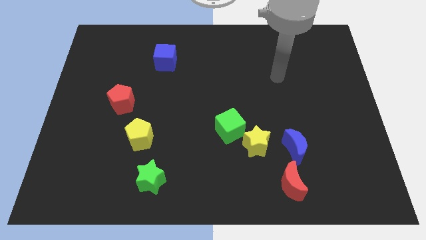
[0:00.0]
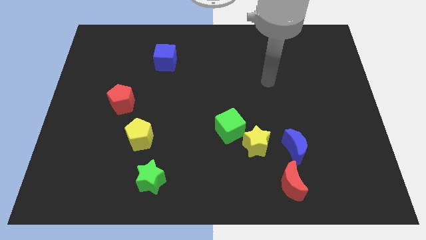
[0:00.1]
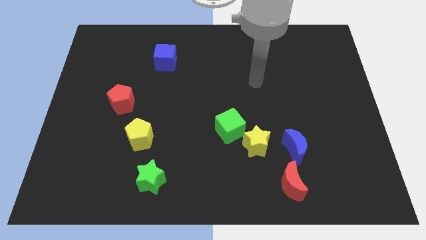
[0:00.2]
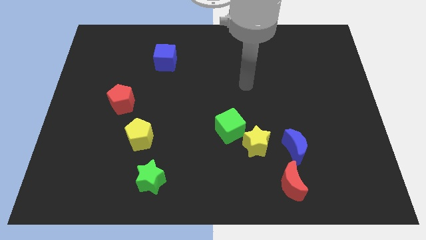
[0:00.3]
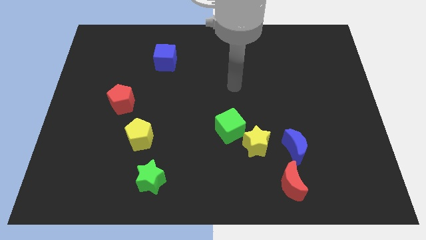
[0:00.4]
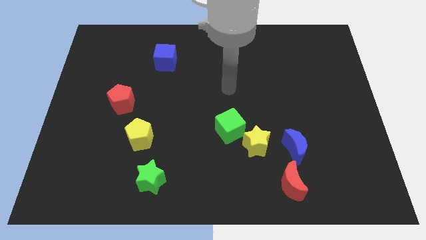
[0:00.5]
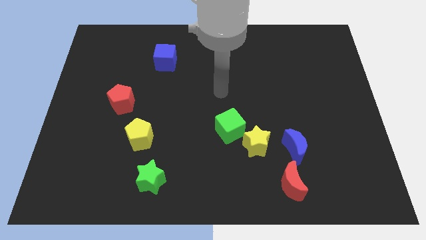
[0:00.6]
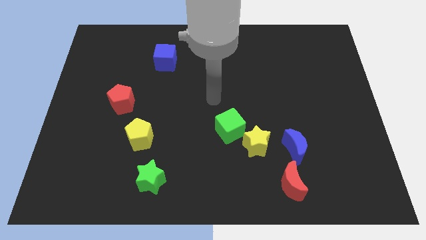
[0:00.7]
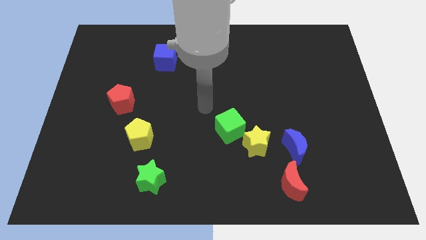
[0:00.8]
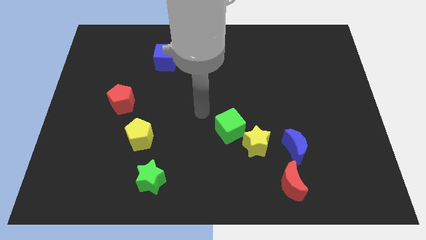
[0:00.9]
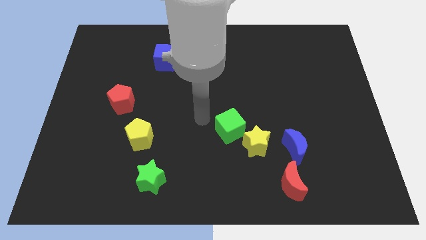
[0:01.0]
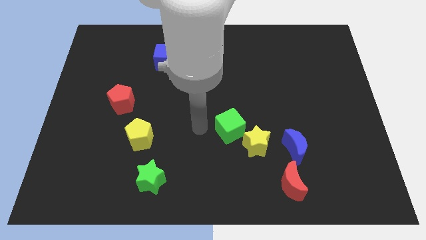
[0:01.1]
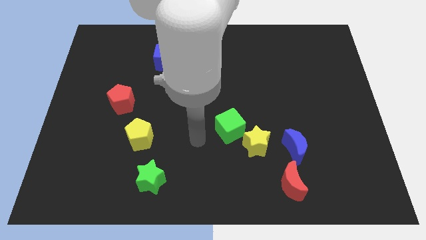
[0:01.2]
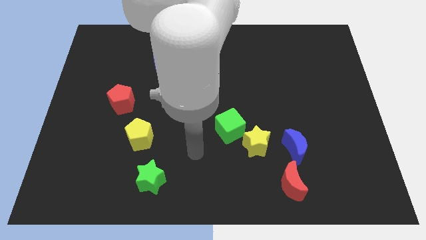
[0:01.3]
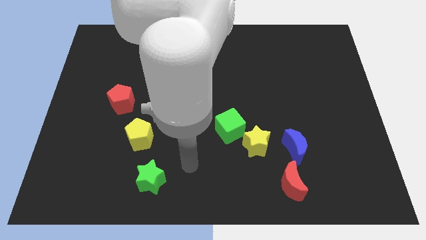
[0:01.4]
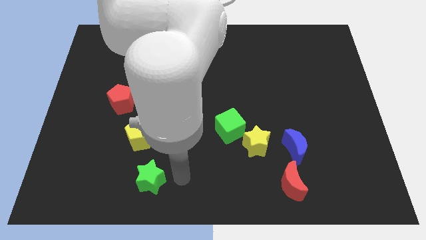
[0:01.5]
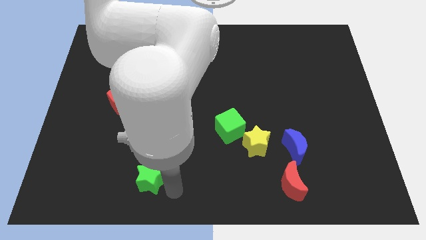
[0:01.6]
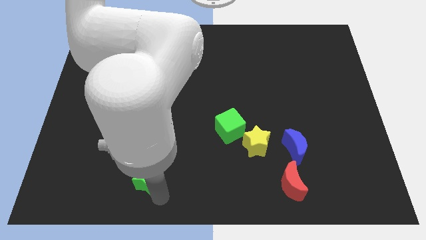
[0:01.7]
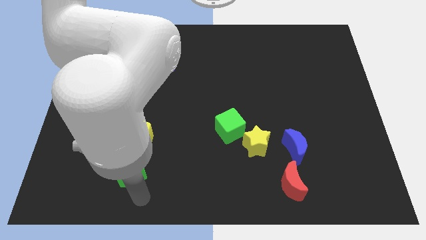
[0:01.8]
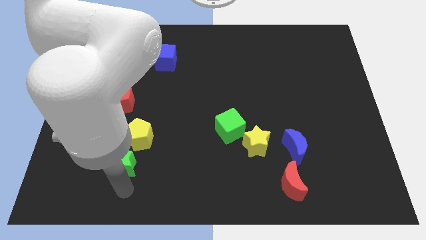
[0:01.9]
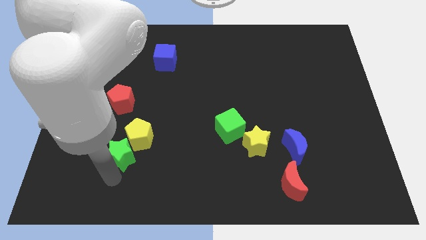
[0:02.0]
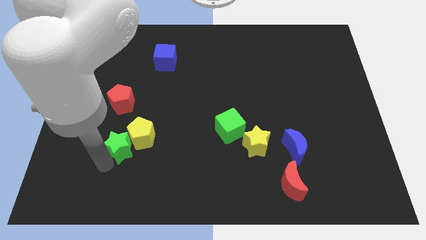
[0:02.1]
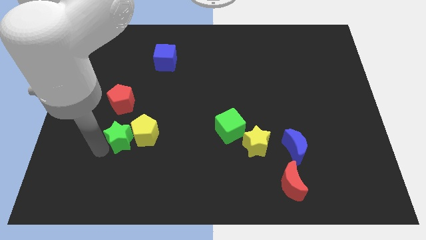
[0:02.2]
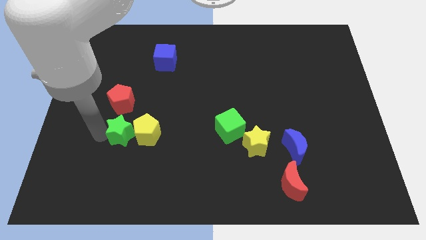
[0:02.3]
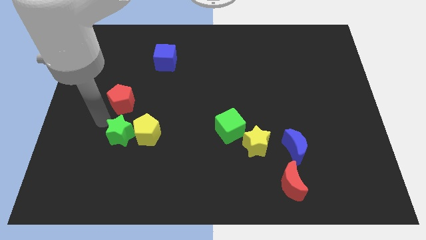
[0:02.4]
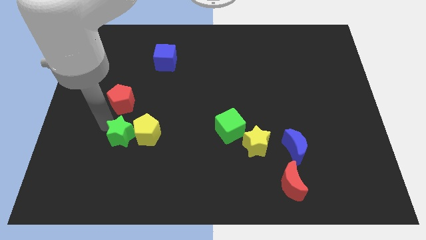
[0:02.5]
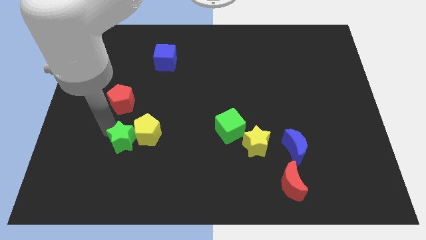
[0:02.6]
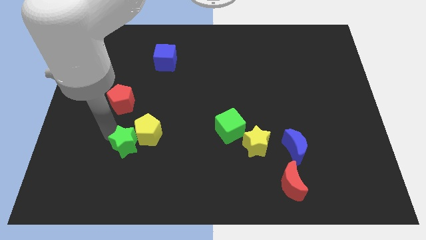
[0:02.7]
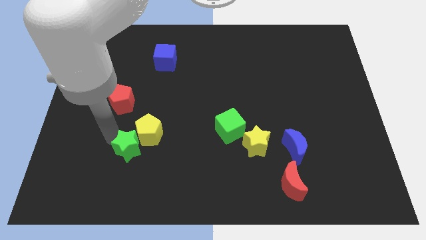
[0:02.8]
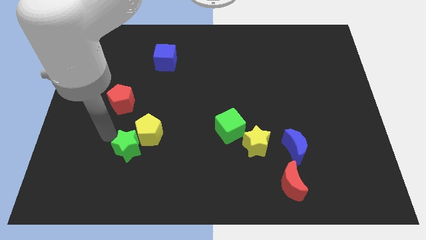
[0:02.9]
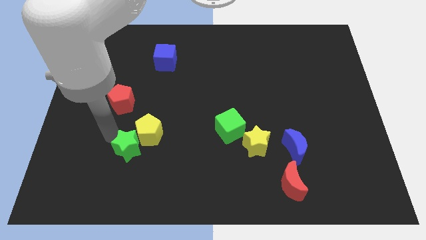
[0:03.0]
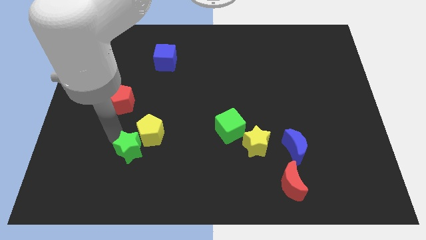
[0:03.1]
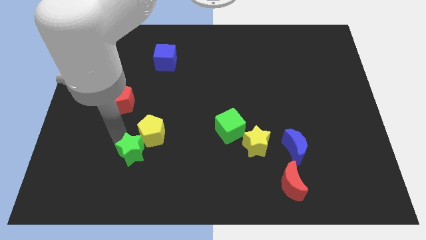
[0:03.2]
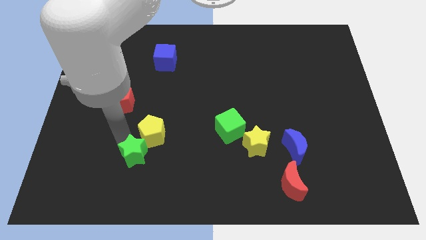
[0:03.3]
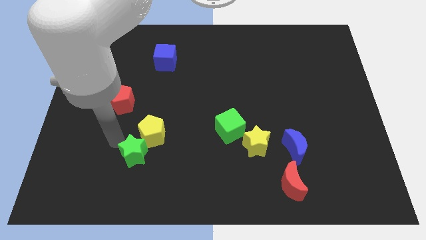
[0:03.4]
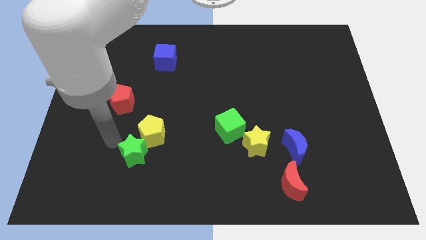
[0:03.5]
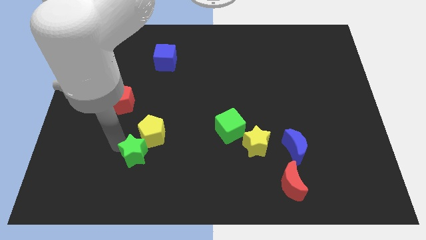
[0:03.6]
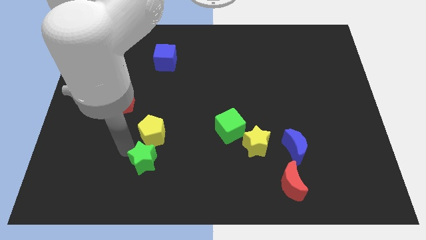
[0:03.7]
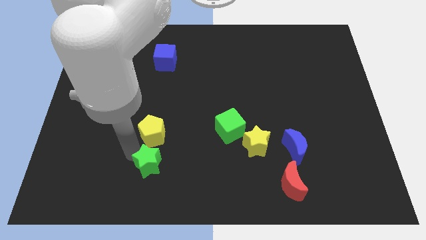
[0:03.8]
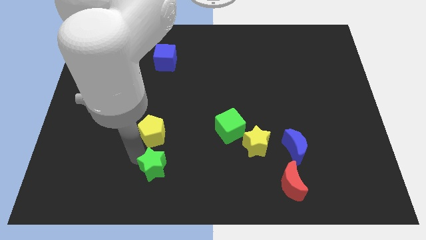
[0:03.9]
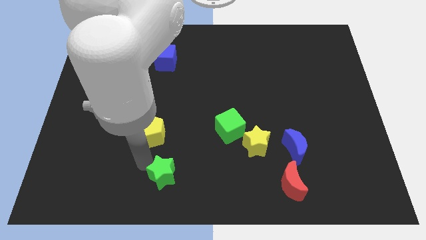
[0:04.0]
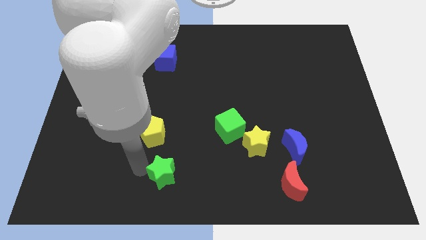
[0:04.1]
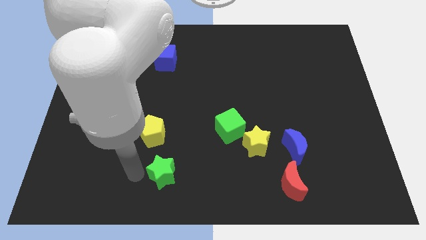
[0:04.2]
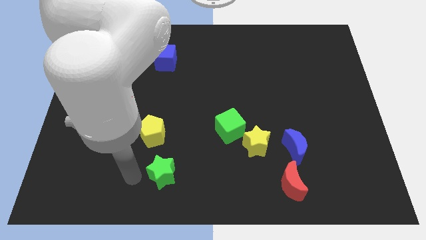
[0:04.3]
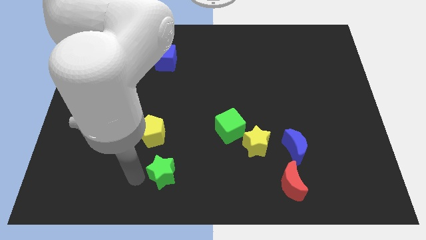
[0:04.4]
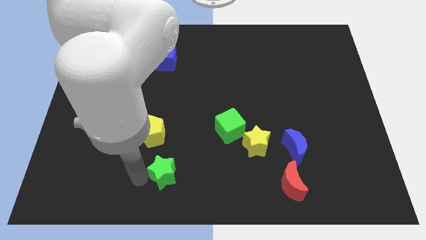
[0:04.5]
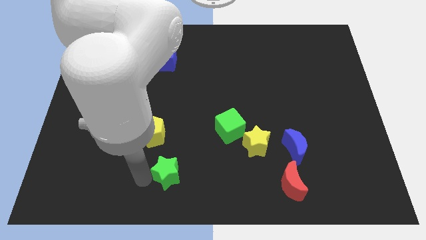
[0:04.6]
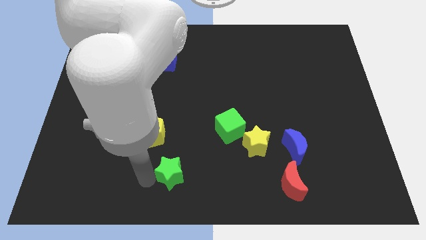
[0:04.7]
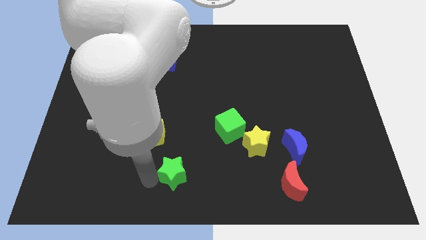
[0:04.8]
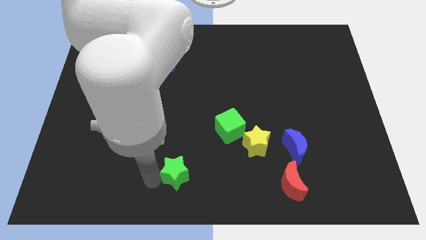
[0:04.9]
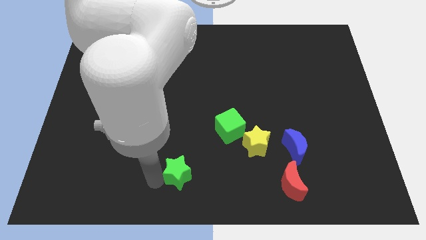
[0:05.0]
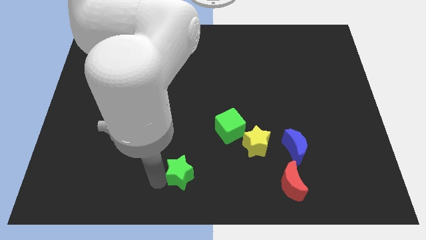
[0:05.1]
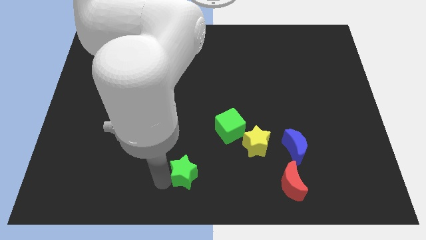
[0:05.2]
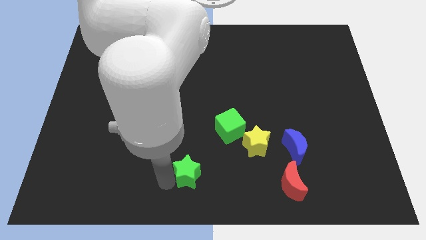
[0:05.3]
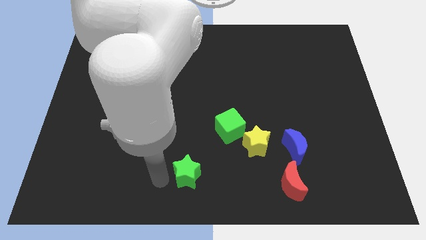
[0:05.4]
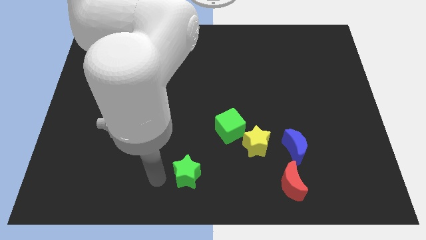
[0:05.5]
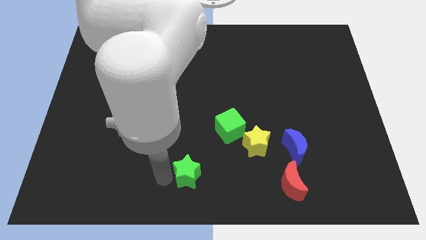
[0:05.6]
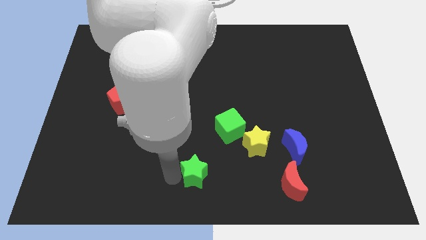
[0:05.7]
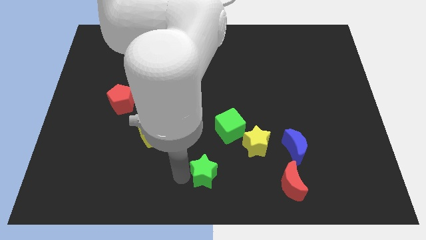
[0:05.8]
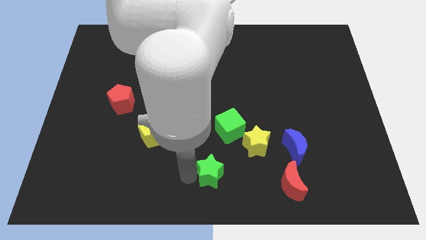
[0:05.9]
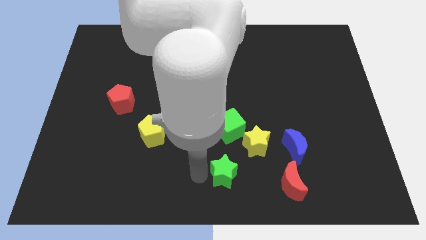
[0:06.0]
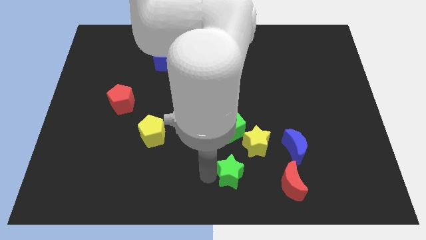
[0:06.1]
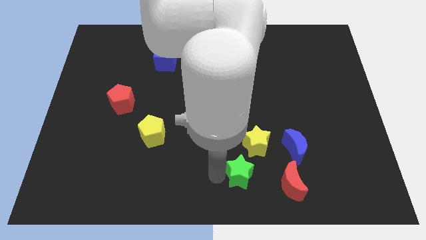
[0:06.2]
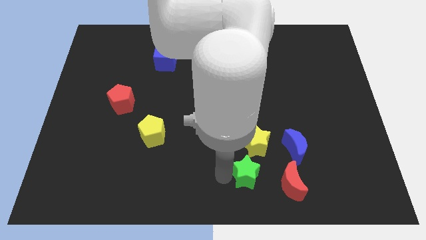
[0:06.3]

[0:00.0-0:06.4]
push the green star right

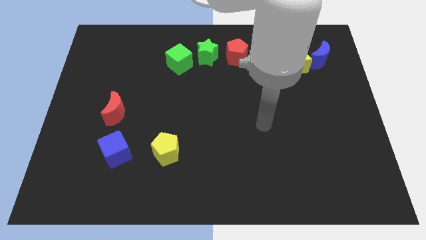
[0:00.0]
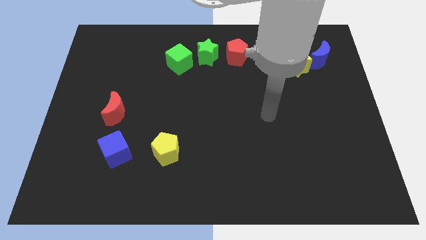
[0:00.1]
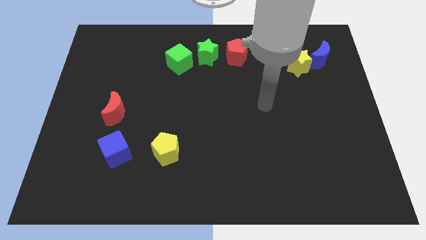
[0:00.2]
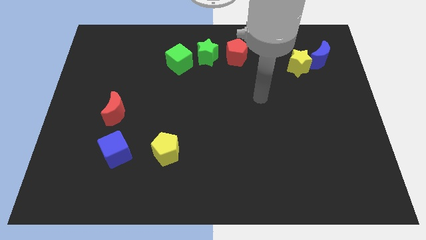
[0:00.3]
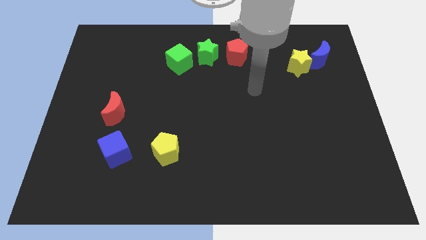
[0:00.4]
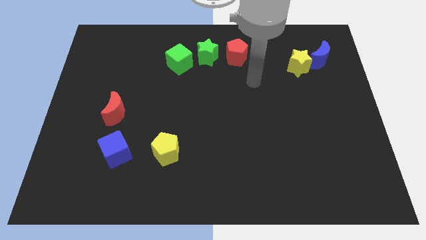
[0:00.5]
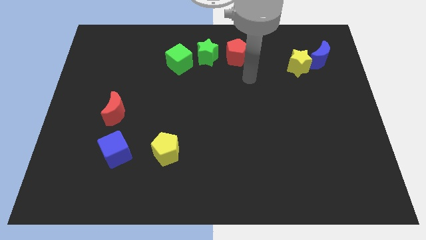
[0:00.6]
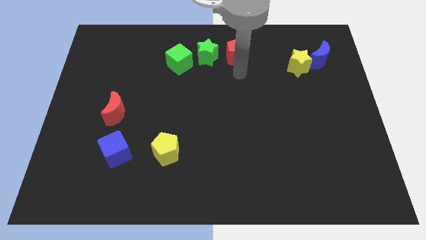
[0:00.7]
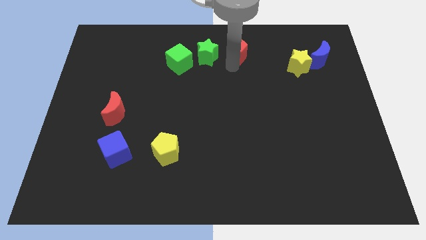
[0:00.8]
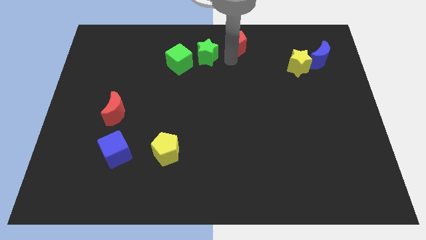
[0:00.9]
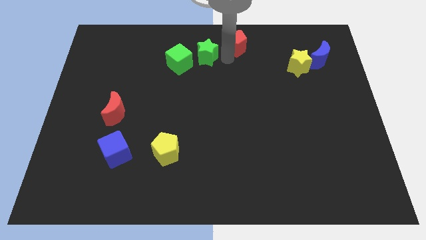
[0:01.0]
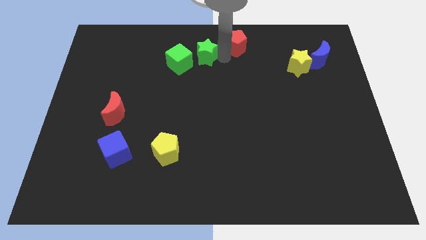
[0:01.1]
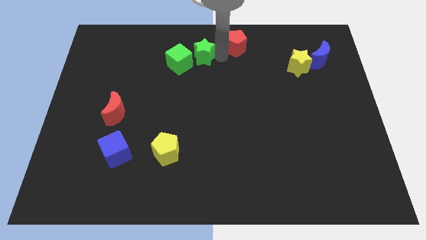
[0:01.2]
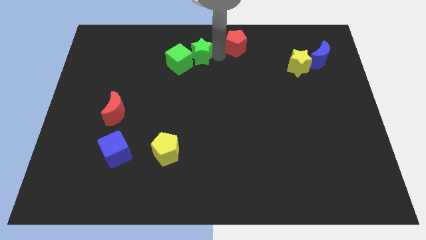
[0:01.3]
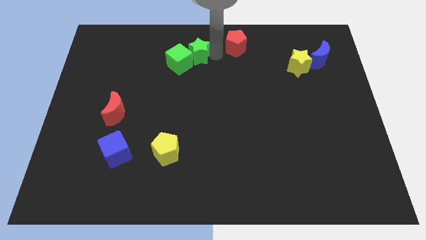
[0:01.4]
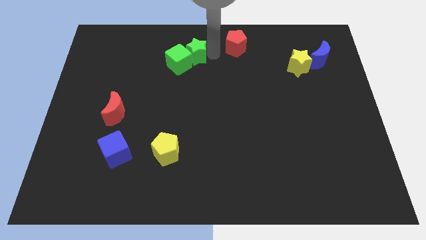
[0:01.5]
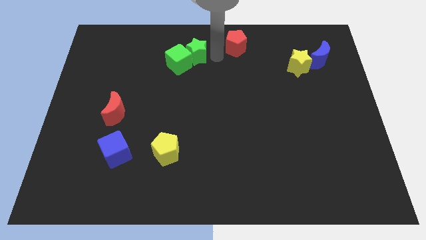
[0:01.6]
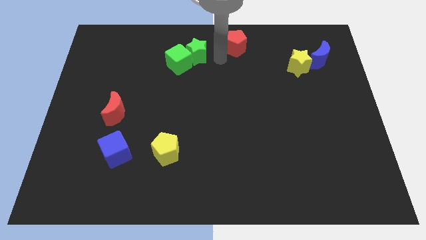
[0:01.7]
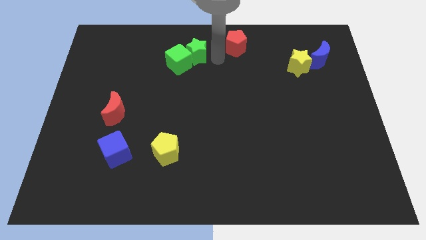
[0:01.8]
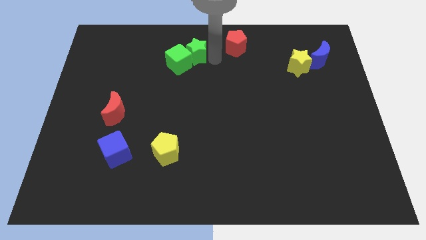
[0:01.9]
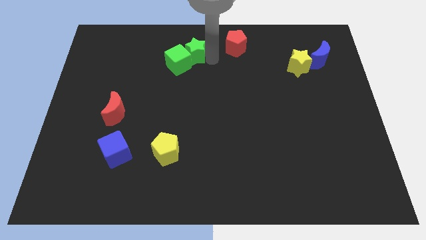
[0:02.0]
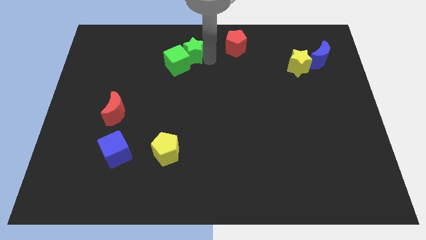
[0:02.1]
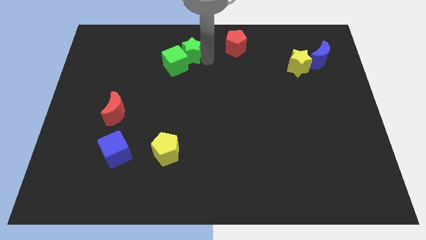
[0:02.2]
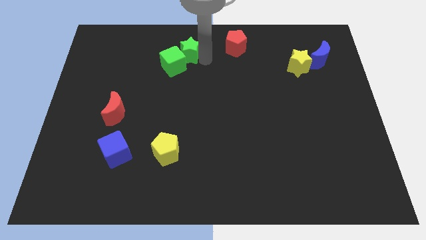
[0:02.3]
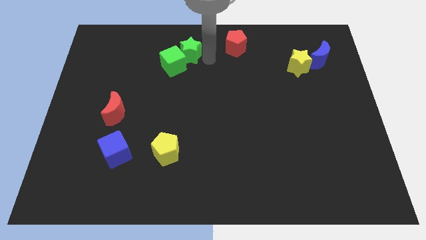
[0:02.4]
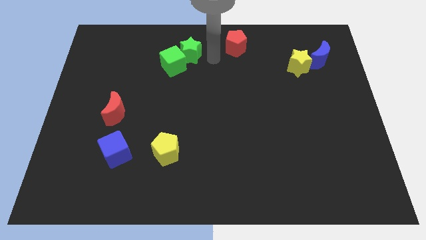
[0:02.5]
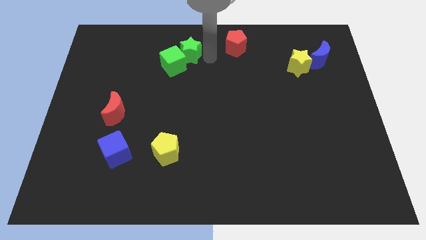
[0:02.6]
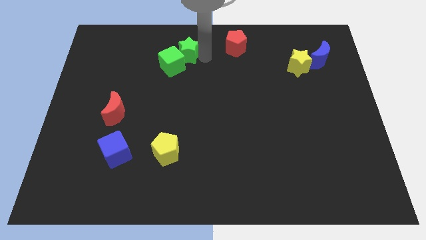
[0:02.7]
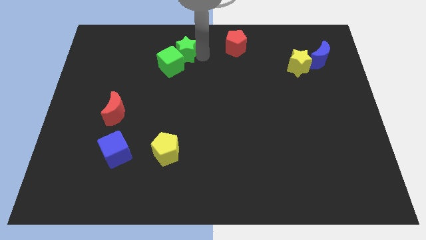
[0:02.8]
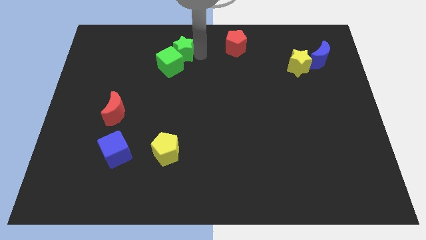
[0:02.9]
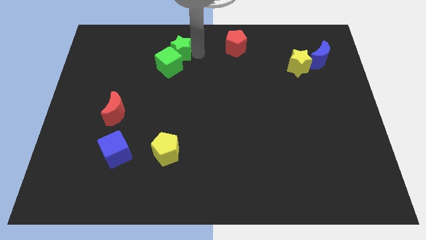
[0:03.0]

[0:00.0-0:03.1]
slide the green star slightly to the left
